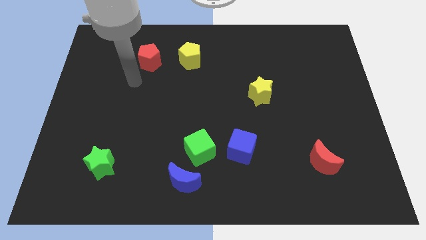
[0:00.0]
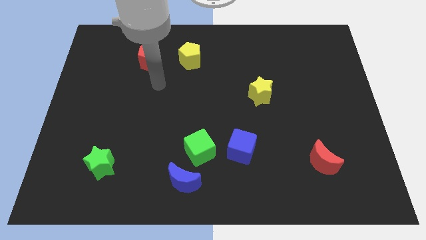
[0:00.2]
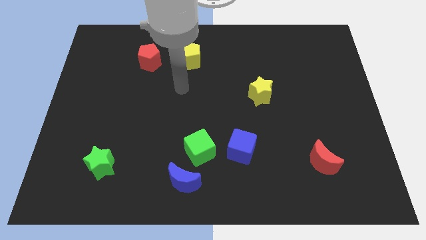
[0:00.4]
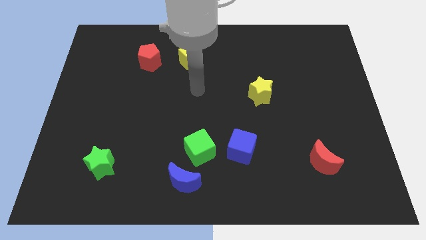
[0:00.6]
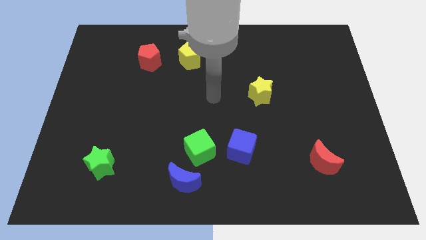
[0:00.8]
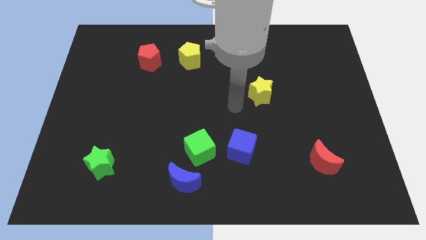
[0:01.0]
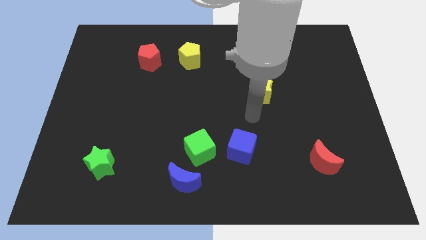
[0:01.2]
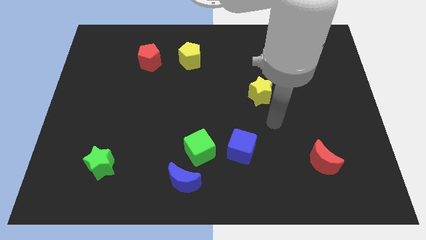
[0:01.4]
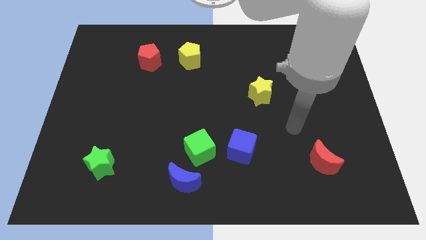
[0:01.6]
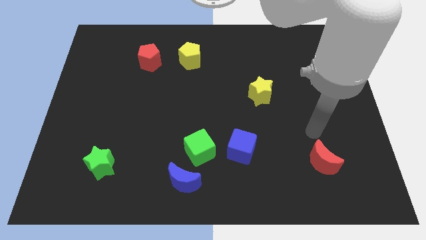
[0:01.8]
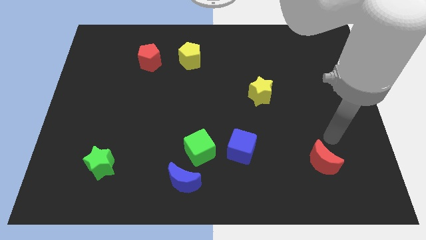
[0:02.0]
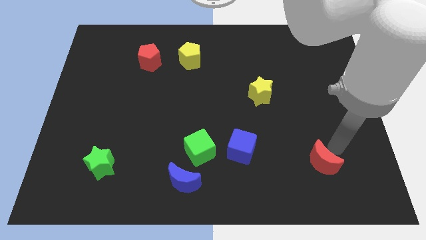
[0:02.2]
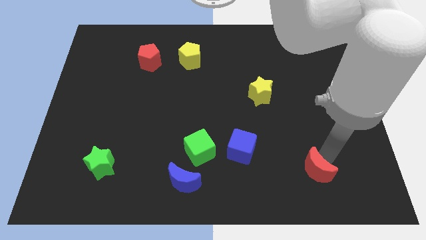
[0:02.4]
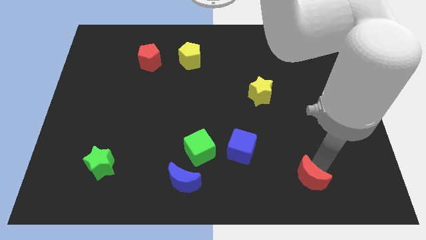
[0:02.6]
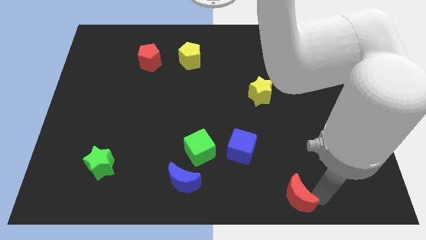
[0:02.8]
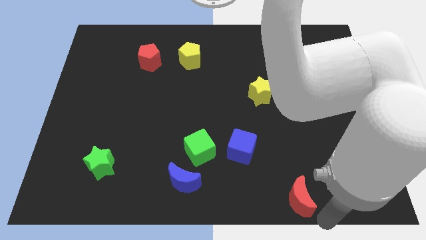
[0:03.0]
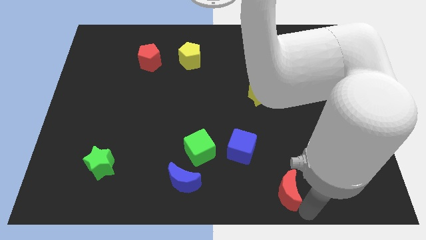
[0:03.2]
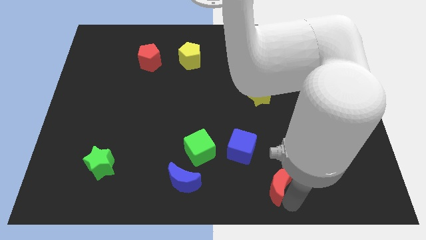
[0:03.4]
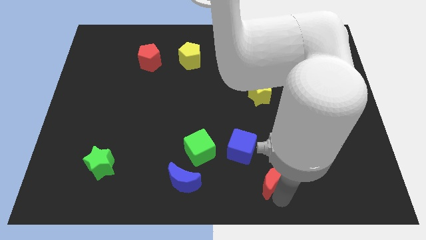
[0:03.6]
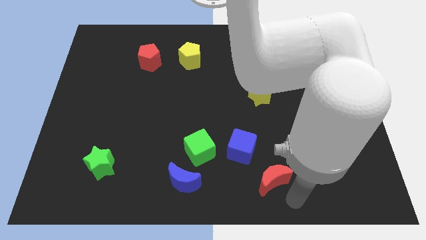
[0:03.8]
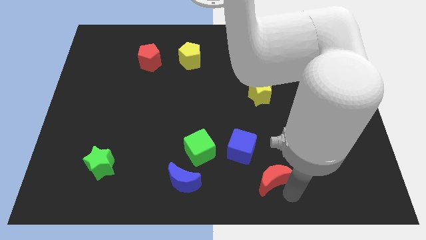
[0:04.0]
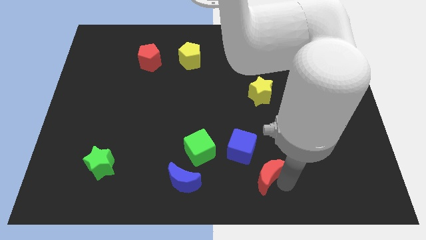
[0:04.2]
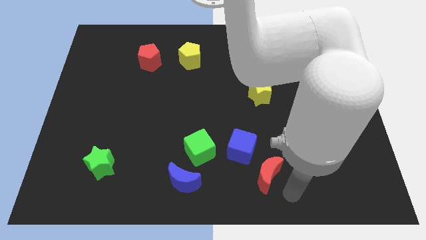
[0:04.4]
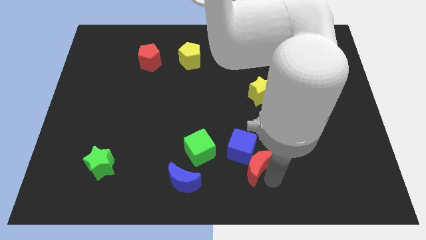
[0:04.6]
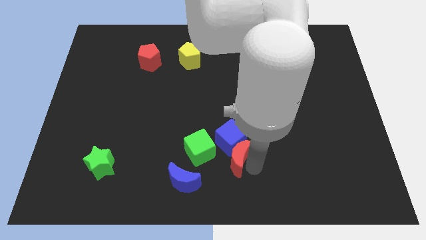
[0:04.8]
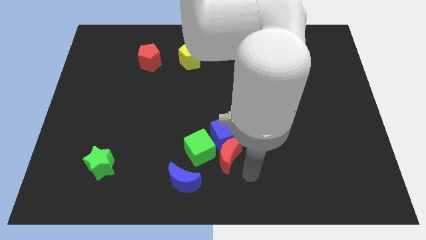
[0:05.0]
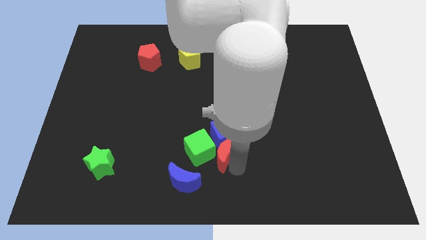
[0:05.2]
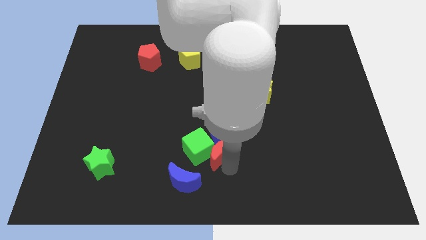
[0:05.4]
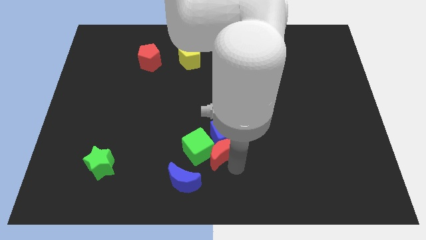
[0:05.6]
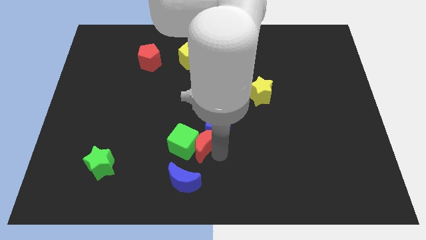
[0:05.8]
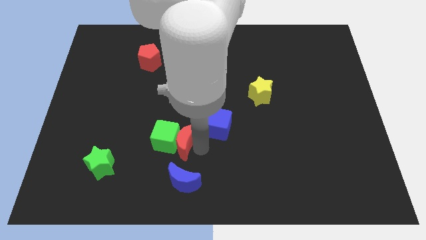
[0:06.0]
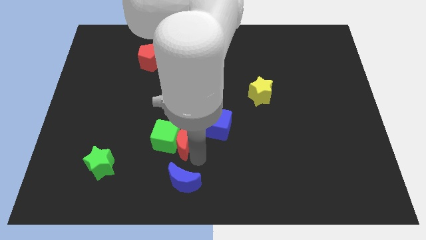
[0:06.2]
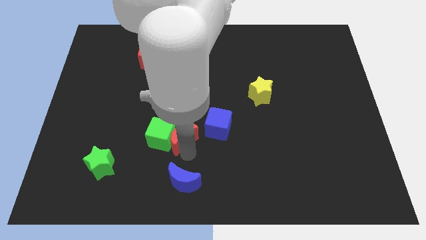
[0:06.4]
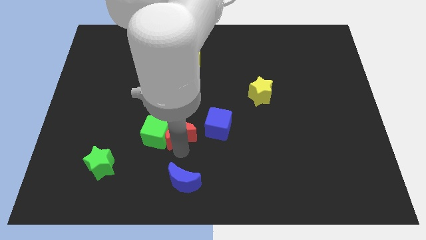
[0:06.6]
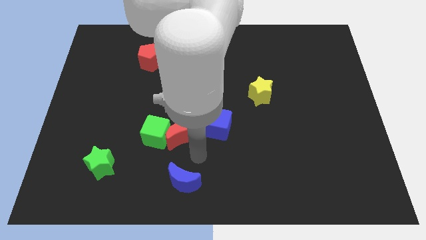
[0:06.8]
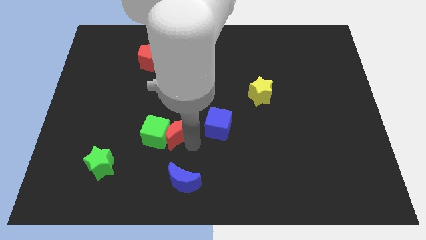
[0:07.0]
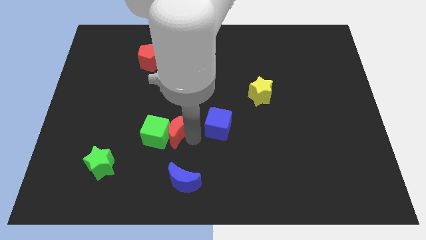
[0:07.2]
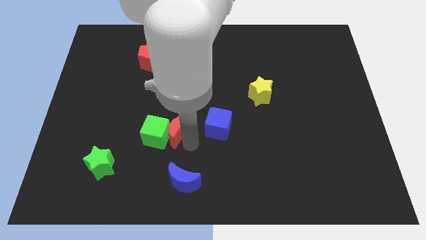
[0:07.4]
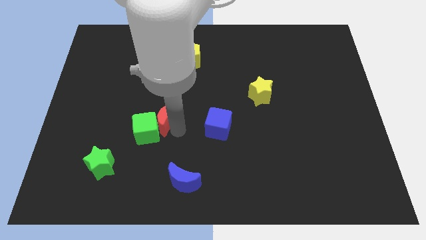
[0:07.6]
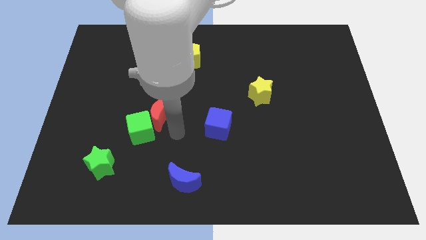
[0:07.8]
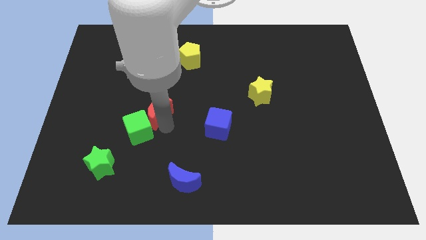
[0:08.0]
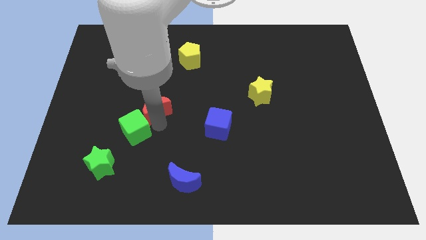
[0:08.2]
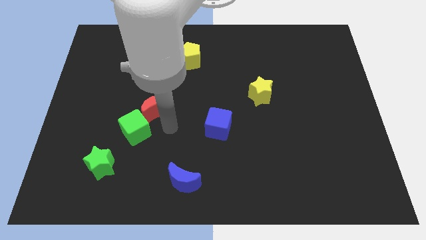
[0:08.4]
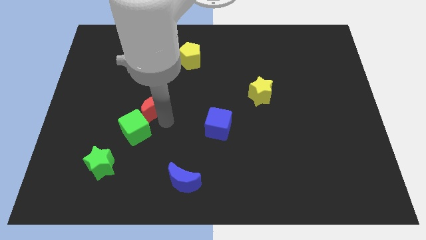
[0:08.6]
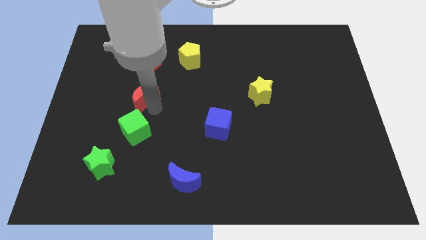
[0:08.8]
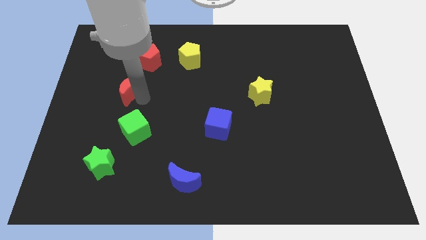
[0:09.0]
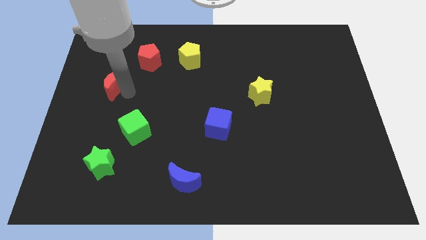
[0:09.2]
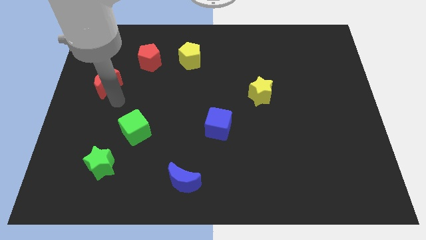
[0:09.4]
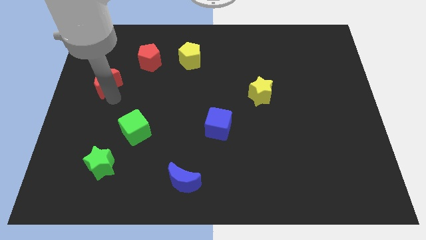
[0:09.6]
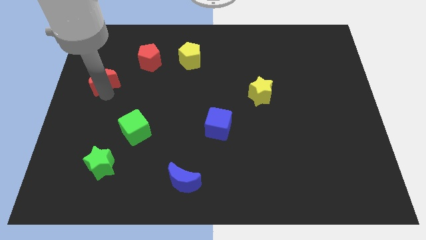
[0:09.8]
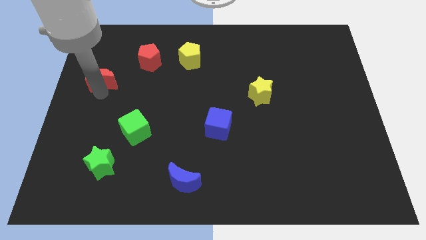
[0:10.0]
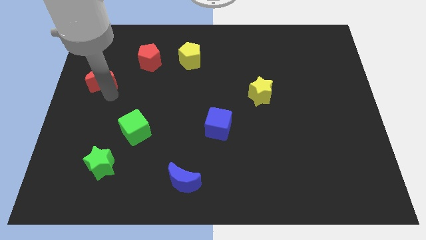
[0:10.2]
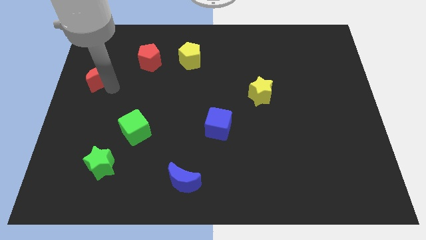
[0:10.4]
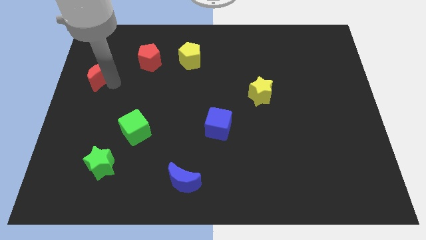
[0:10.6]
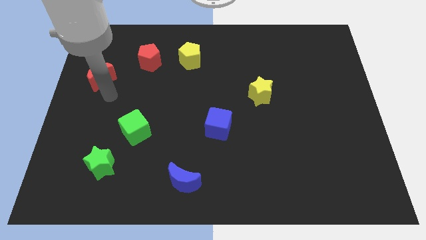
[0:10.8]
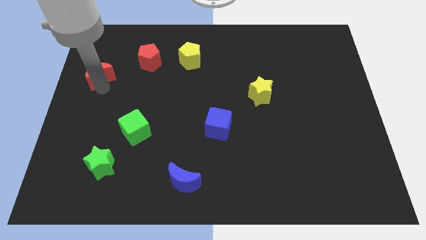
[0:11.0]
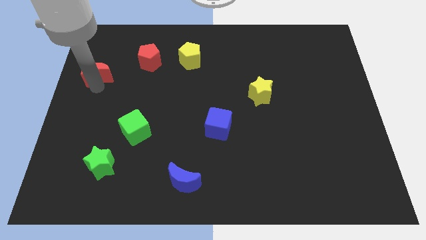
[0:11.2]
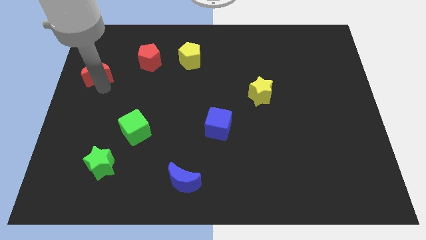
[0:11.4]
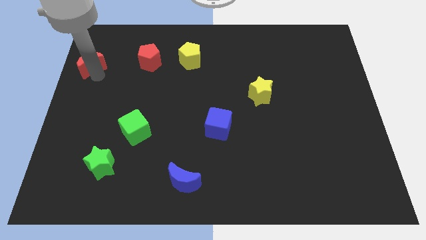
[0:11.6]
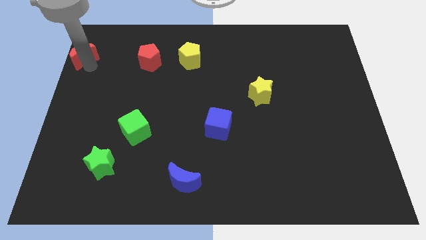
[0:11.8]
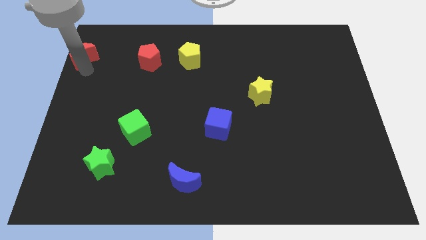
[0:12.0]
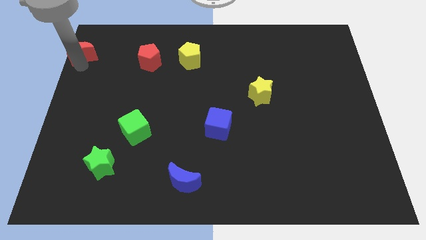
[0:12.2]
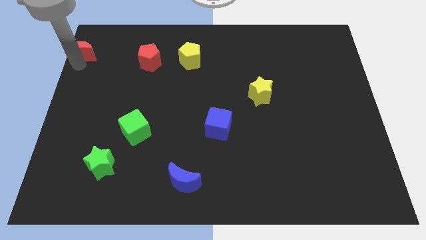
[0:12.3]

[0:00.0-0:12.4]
slide the red moon to the top left of the board
